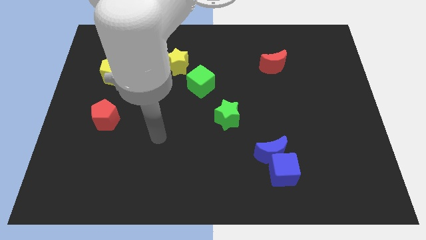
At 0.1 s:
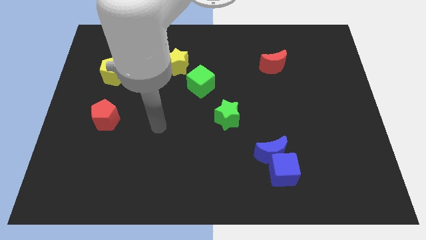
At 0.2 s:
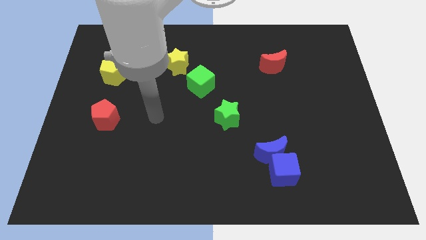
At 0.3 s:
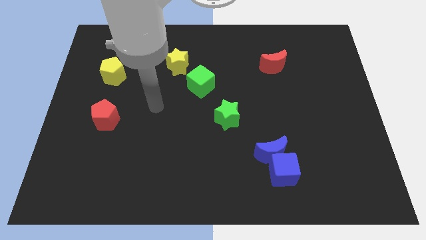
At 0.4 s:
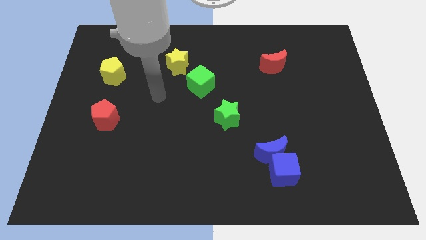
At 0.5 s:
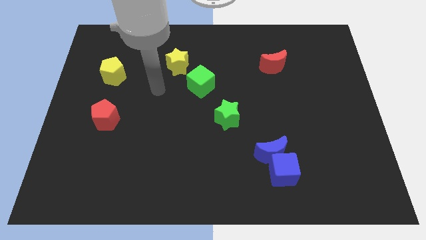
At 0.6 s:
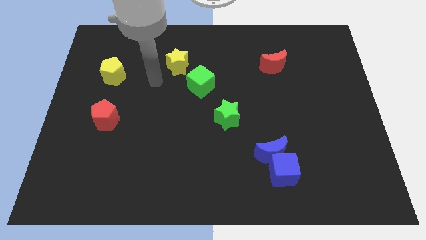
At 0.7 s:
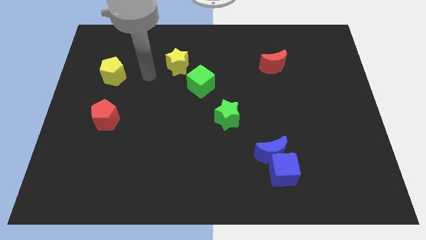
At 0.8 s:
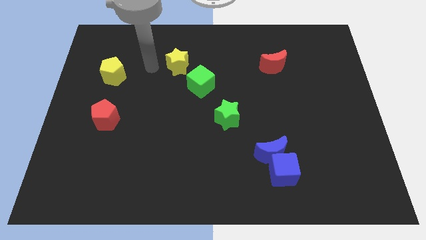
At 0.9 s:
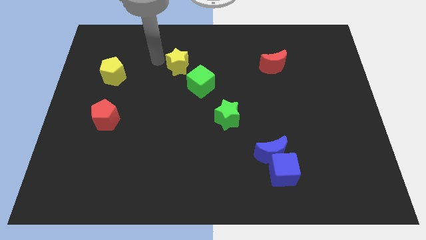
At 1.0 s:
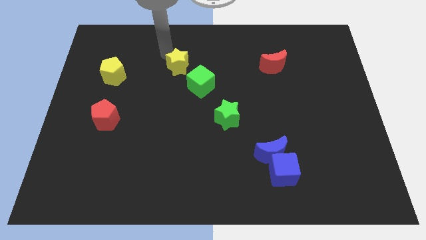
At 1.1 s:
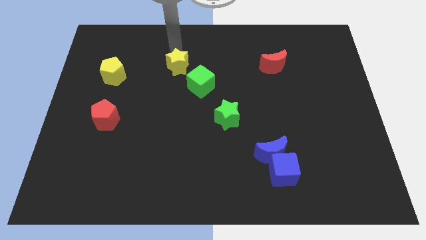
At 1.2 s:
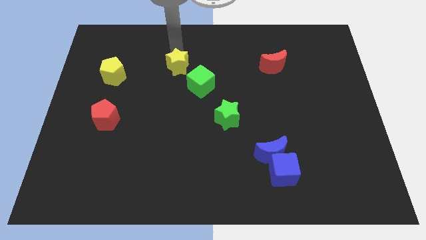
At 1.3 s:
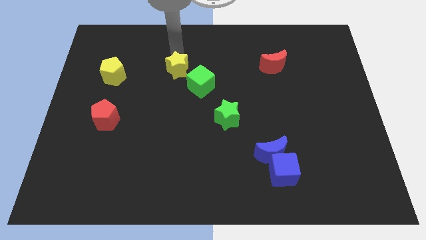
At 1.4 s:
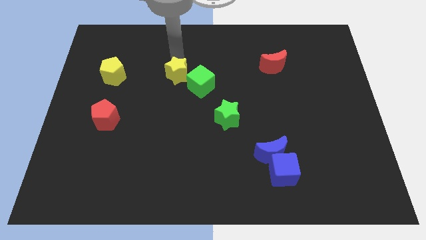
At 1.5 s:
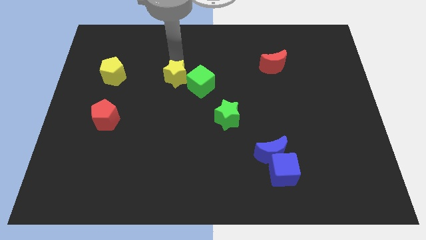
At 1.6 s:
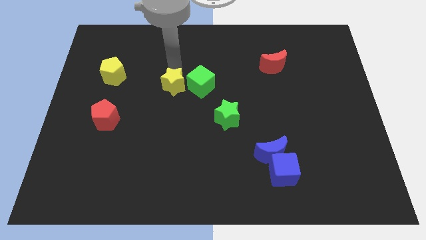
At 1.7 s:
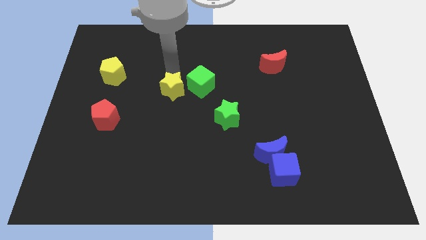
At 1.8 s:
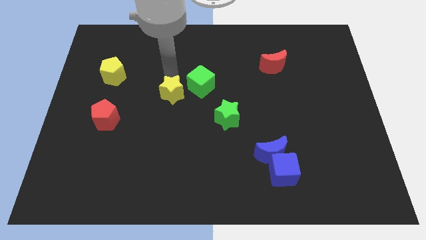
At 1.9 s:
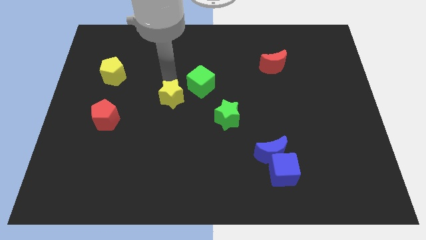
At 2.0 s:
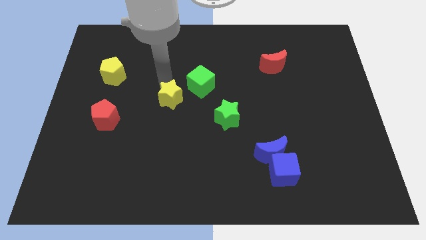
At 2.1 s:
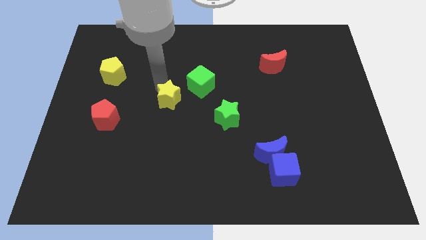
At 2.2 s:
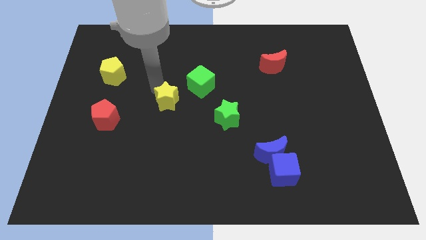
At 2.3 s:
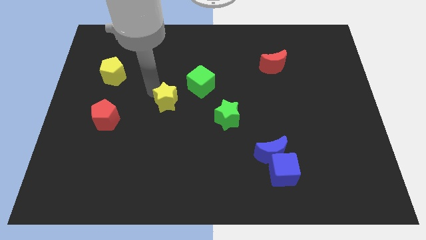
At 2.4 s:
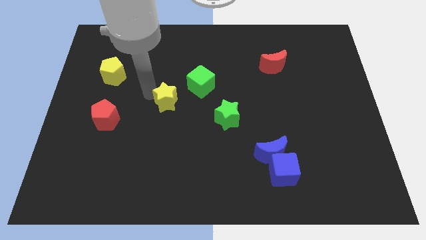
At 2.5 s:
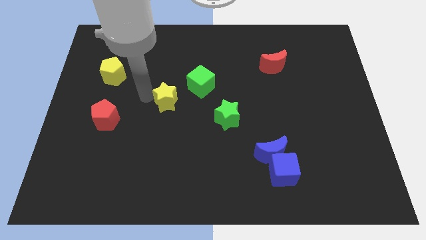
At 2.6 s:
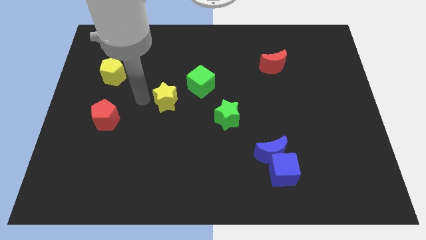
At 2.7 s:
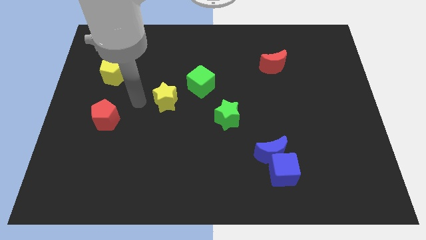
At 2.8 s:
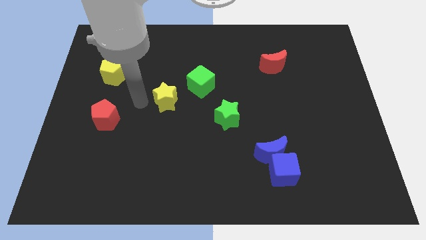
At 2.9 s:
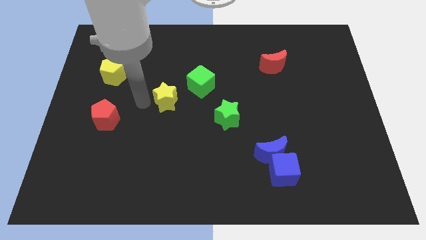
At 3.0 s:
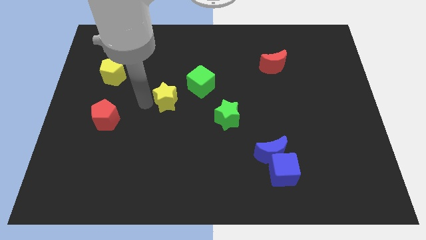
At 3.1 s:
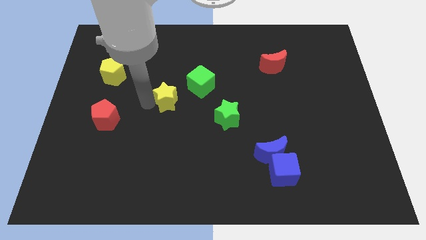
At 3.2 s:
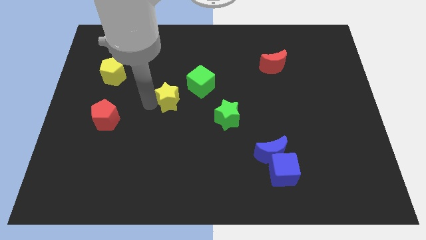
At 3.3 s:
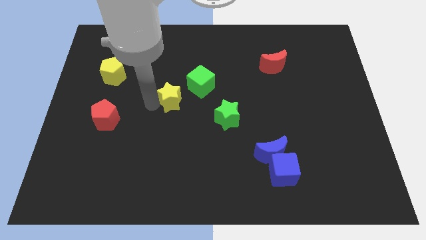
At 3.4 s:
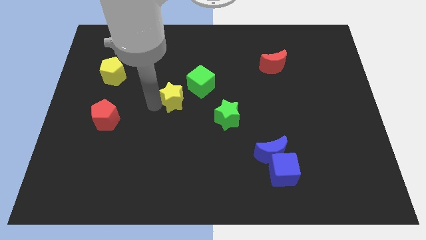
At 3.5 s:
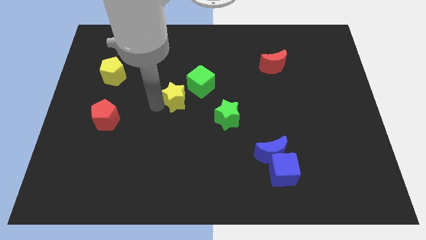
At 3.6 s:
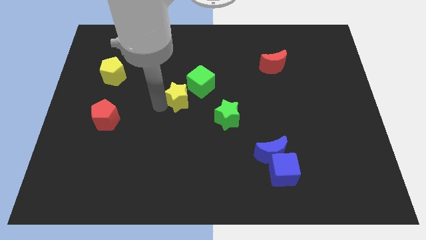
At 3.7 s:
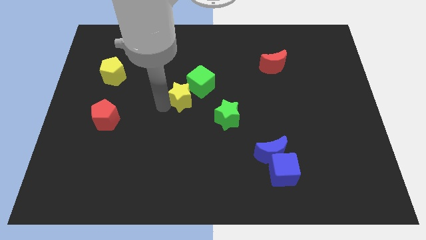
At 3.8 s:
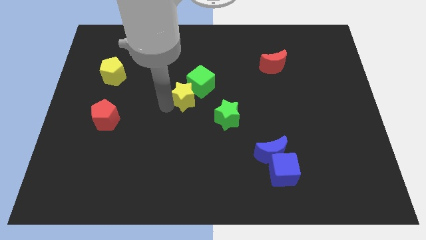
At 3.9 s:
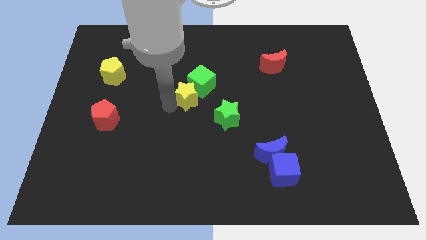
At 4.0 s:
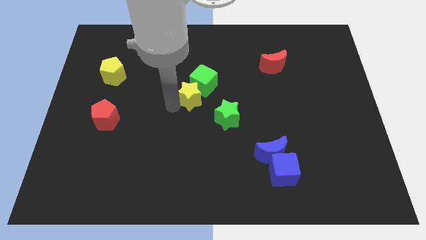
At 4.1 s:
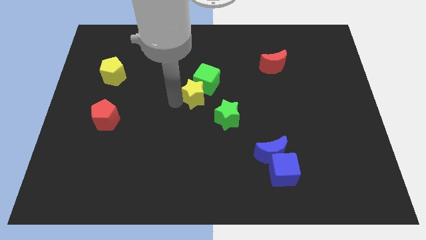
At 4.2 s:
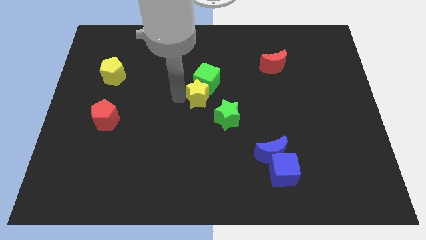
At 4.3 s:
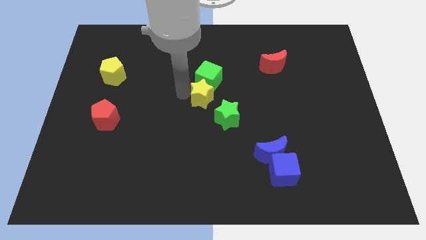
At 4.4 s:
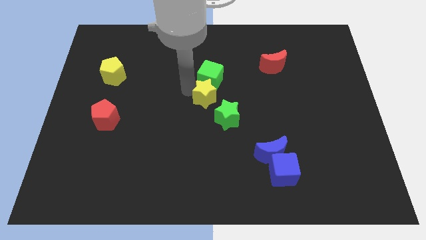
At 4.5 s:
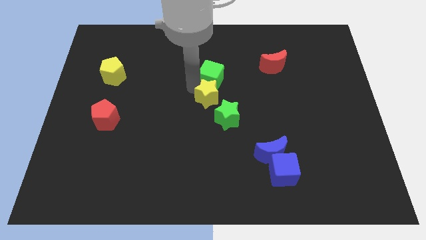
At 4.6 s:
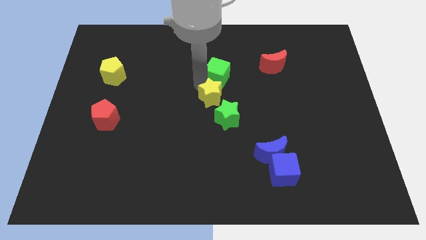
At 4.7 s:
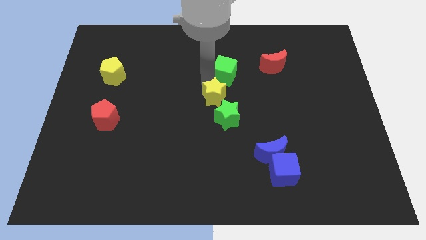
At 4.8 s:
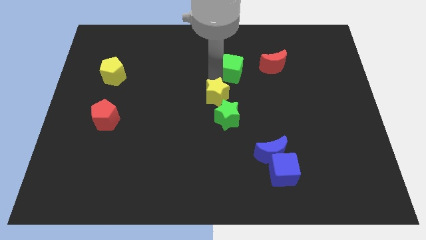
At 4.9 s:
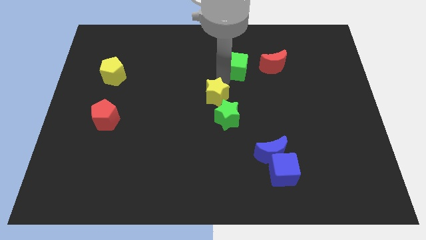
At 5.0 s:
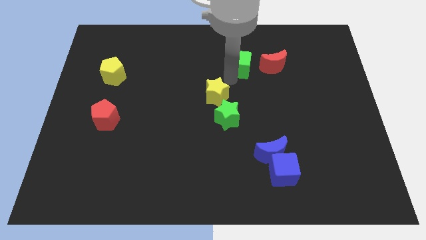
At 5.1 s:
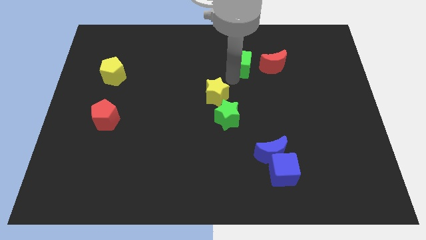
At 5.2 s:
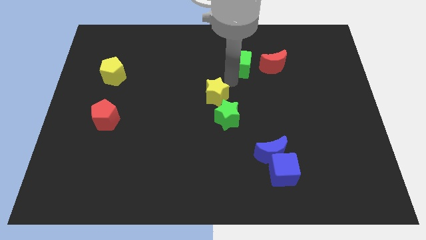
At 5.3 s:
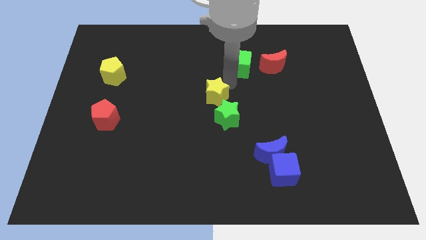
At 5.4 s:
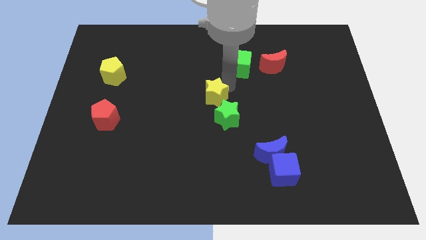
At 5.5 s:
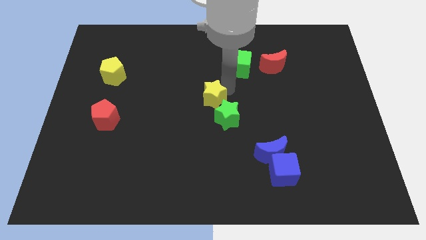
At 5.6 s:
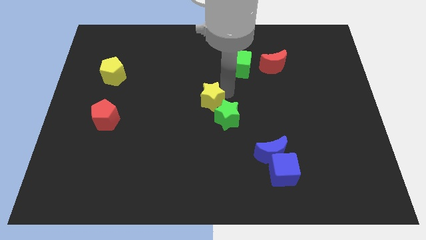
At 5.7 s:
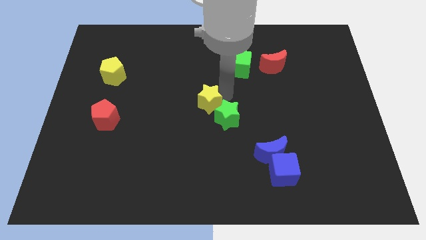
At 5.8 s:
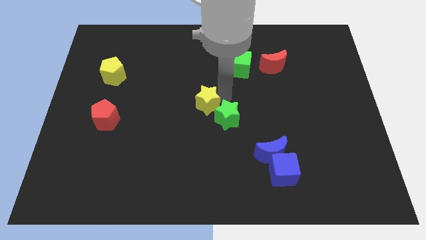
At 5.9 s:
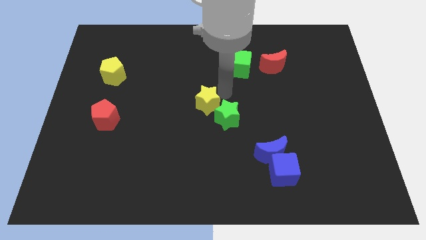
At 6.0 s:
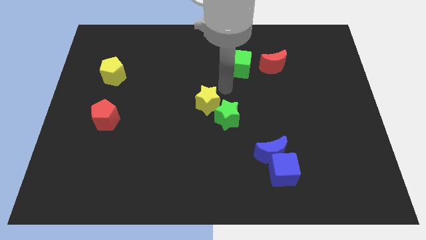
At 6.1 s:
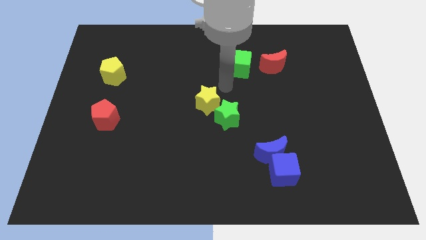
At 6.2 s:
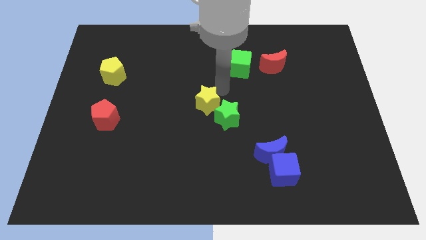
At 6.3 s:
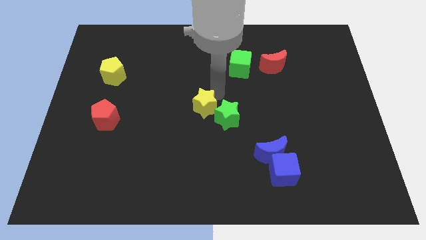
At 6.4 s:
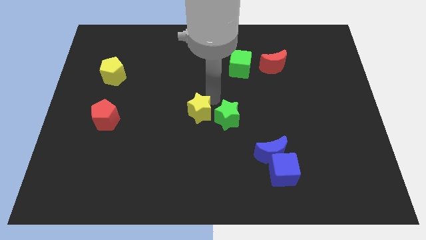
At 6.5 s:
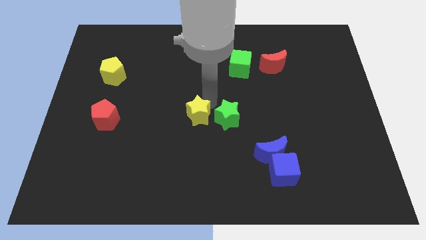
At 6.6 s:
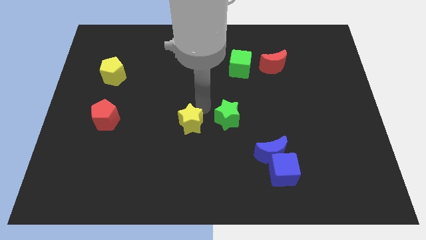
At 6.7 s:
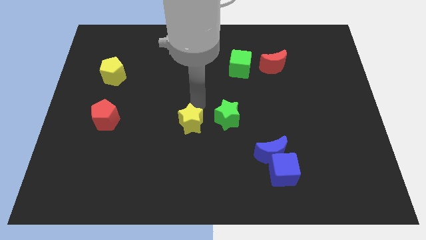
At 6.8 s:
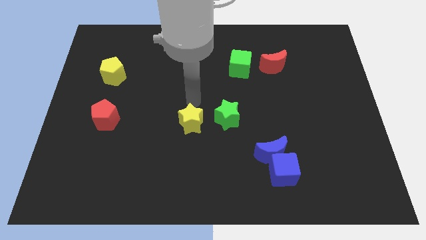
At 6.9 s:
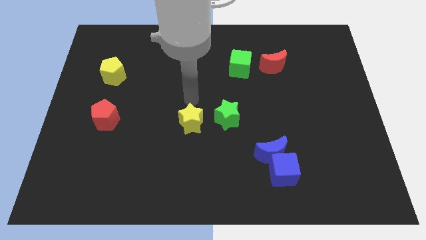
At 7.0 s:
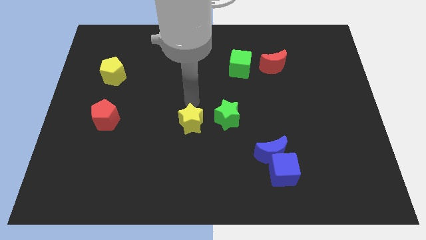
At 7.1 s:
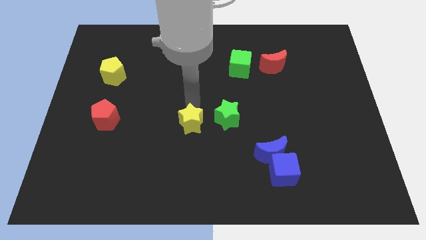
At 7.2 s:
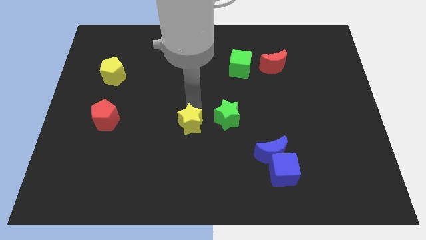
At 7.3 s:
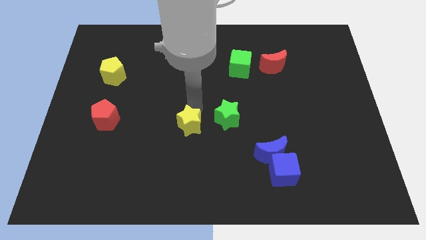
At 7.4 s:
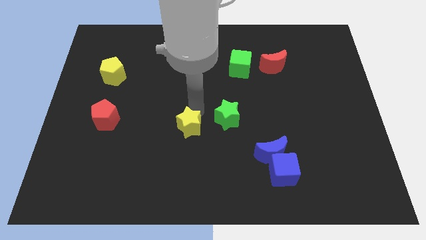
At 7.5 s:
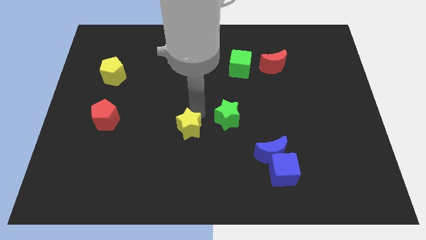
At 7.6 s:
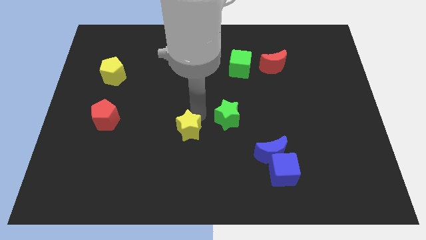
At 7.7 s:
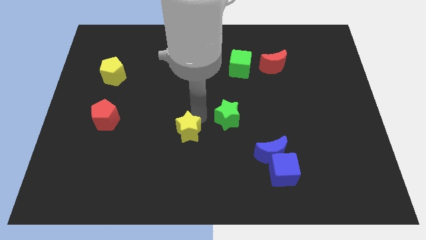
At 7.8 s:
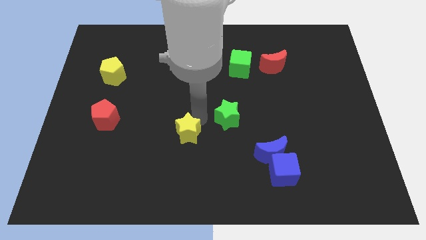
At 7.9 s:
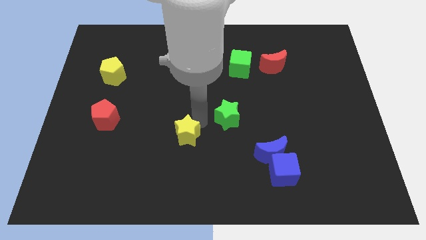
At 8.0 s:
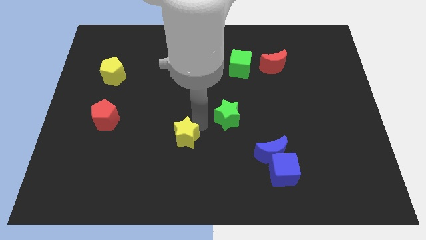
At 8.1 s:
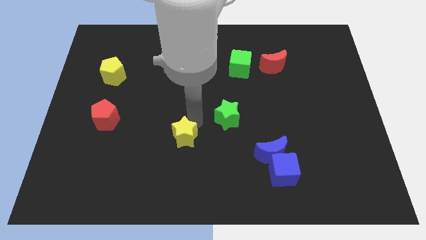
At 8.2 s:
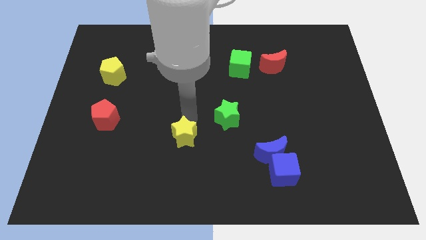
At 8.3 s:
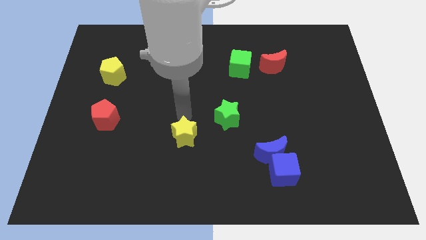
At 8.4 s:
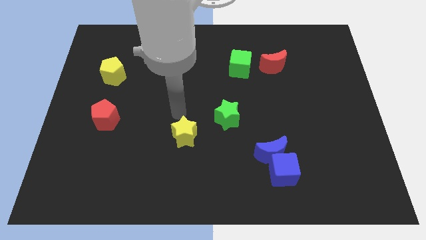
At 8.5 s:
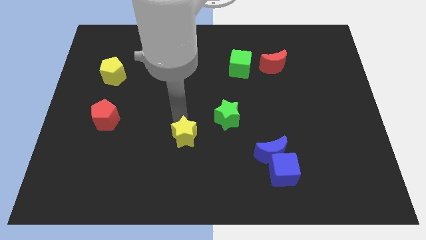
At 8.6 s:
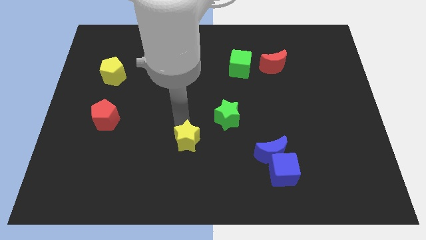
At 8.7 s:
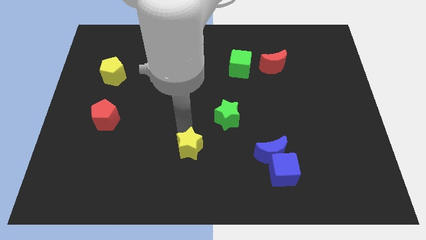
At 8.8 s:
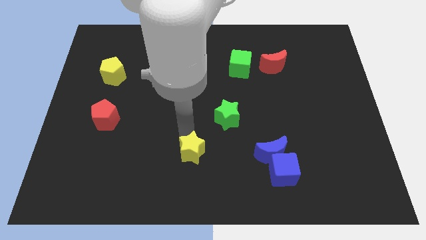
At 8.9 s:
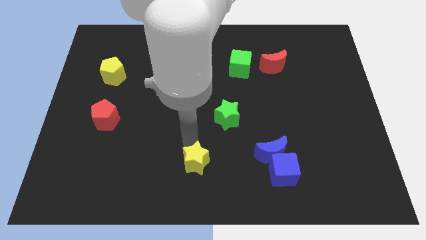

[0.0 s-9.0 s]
move the yellow star to the bottom side
